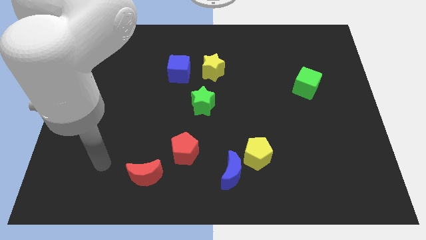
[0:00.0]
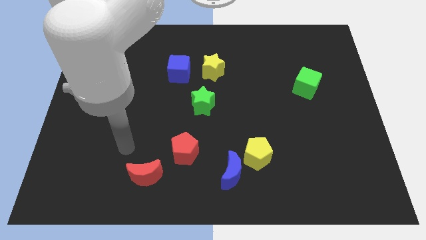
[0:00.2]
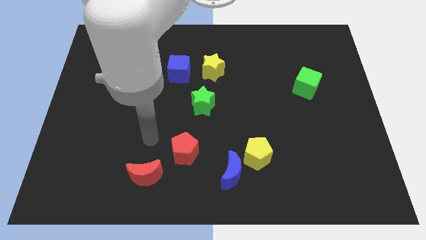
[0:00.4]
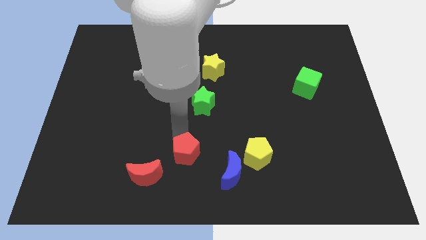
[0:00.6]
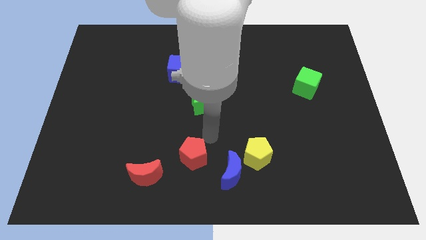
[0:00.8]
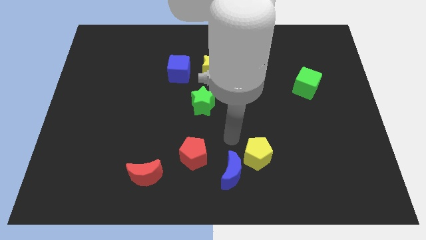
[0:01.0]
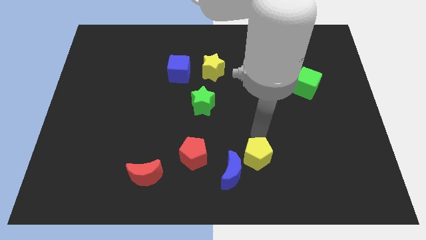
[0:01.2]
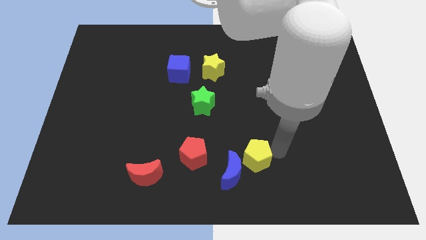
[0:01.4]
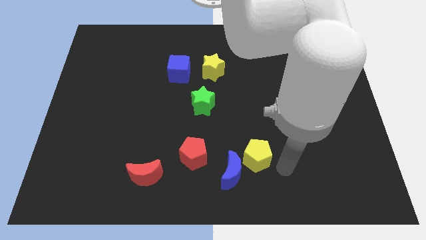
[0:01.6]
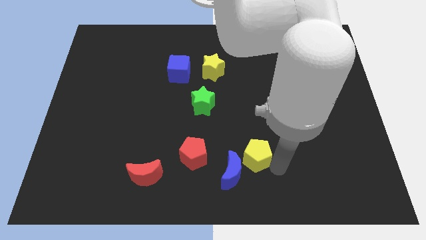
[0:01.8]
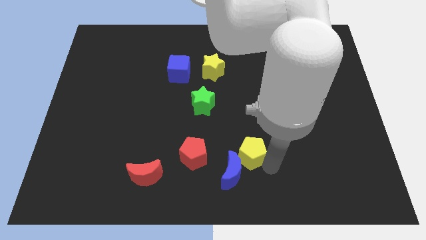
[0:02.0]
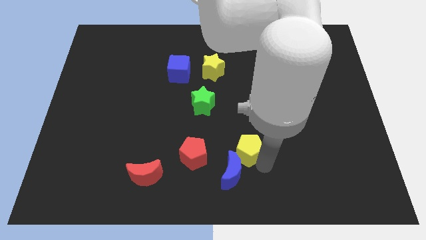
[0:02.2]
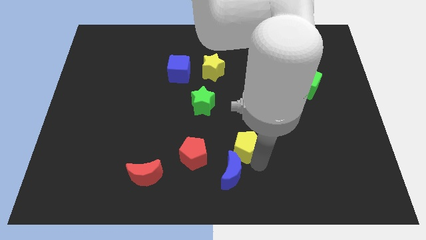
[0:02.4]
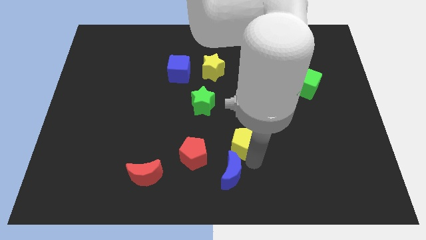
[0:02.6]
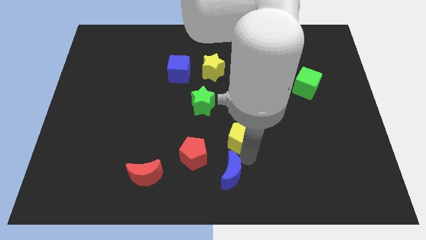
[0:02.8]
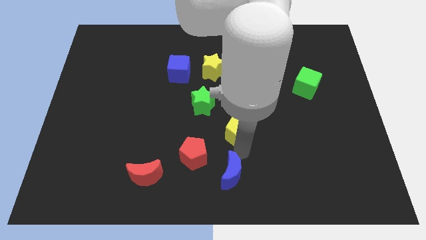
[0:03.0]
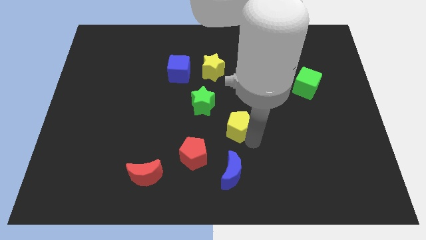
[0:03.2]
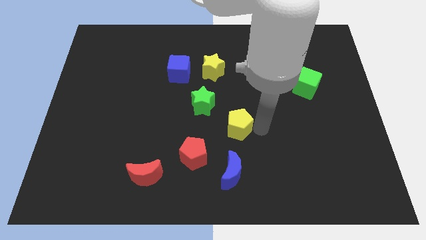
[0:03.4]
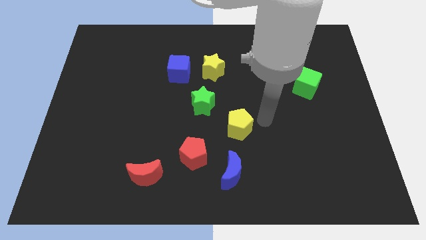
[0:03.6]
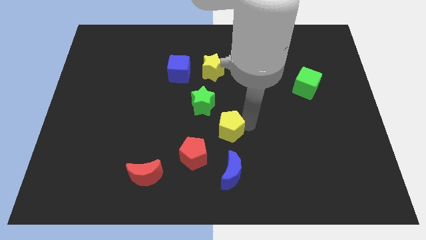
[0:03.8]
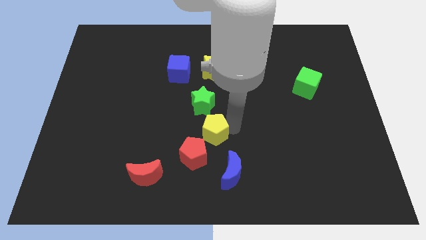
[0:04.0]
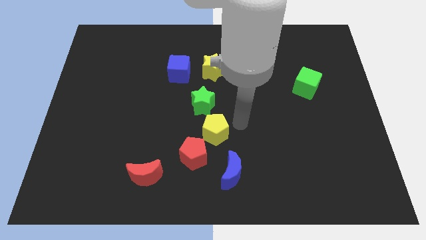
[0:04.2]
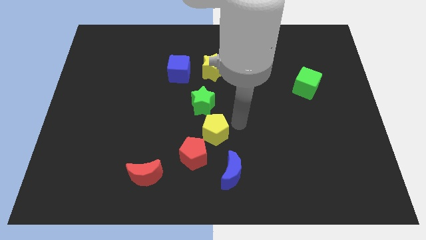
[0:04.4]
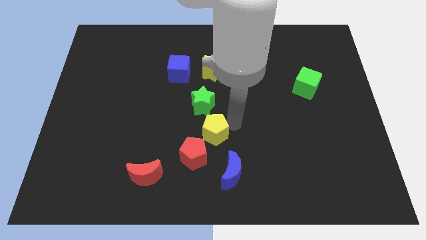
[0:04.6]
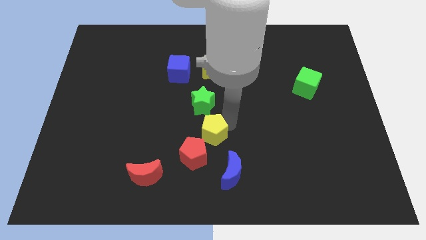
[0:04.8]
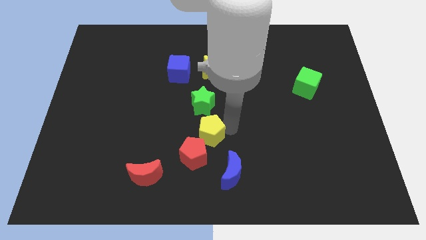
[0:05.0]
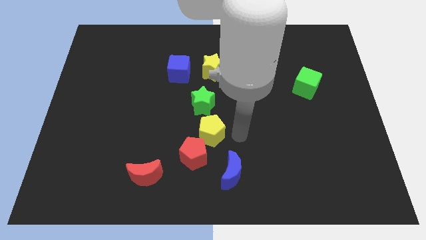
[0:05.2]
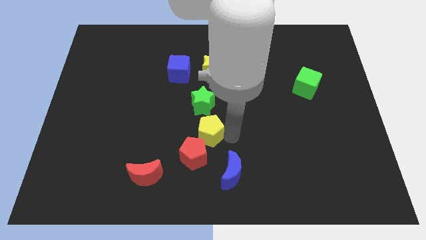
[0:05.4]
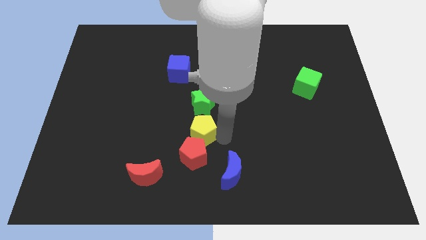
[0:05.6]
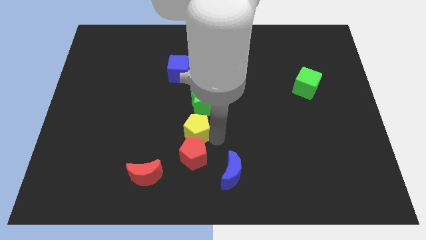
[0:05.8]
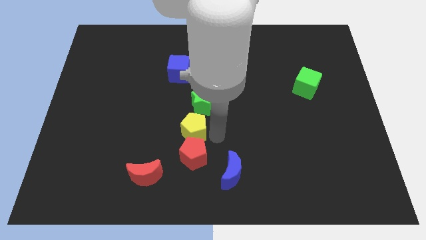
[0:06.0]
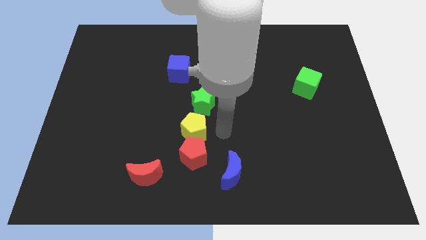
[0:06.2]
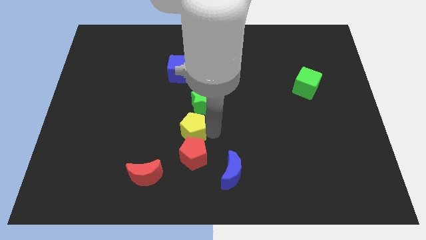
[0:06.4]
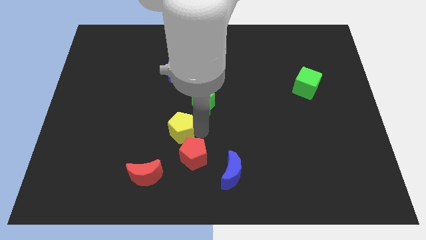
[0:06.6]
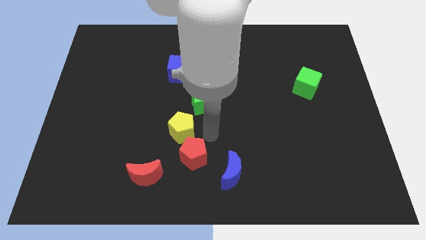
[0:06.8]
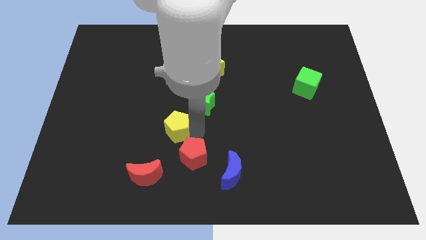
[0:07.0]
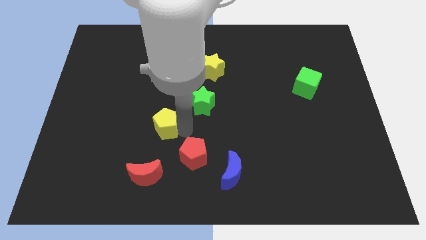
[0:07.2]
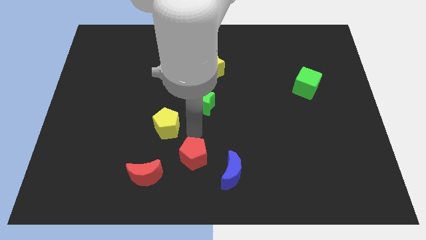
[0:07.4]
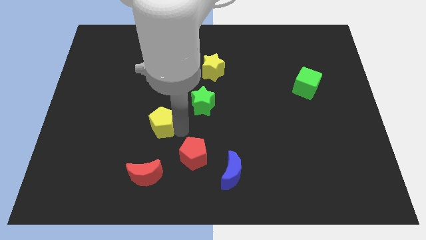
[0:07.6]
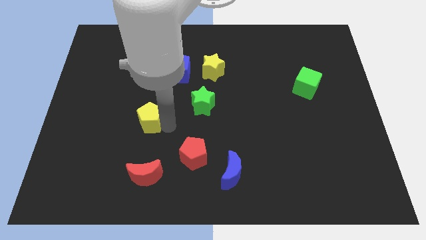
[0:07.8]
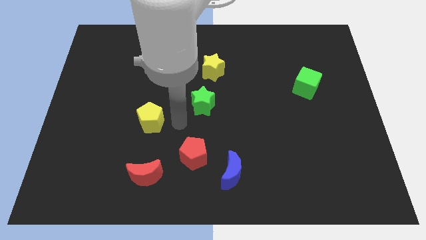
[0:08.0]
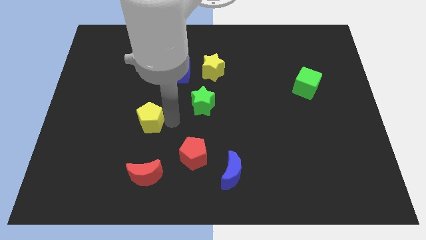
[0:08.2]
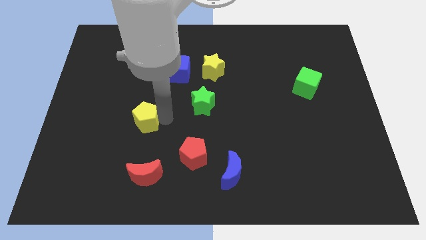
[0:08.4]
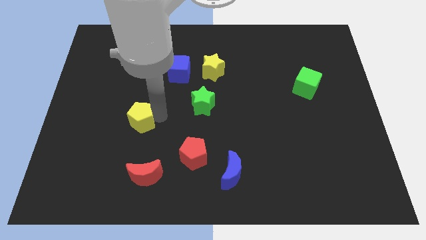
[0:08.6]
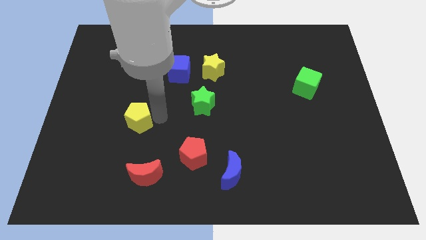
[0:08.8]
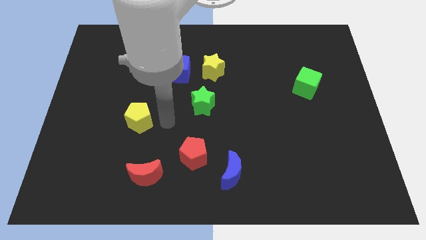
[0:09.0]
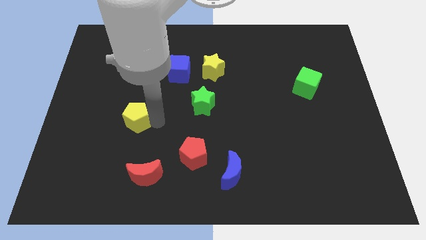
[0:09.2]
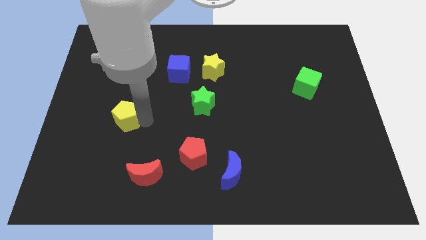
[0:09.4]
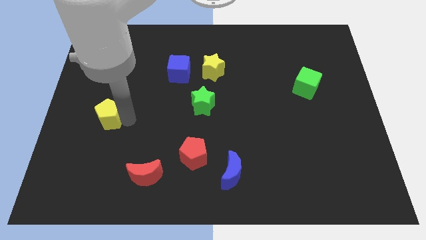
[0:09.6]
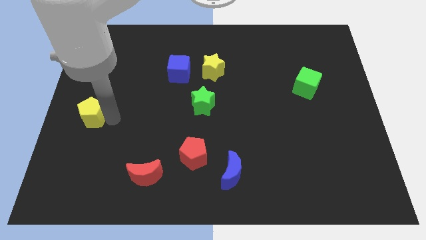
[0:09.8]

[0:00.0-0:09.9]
put the yellow pentagon to the left side of the board

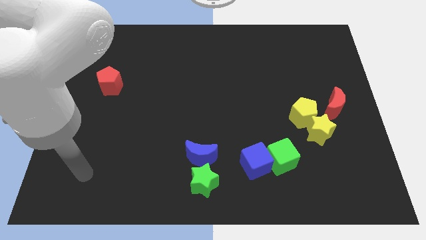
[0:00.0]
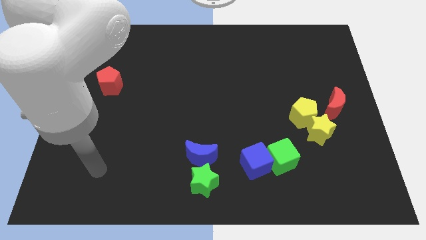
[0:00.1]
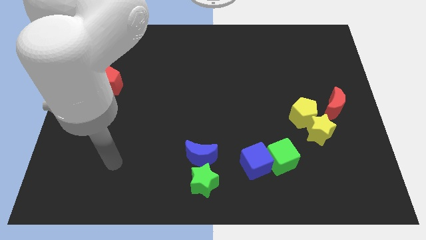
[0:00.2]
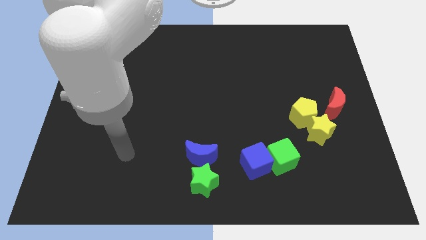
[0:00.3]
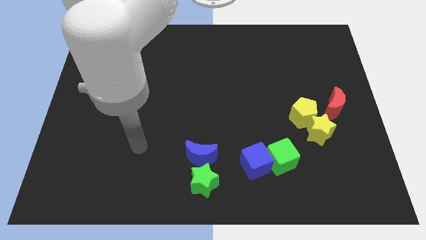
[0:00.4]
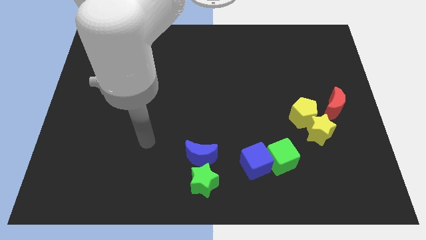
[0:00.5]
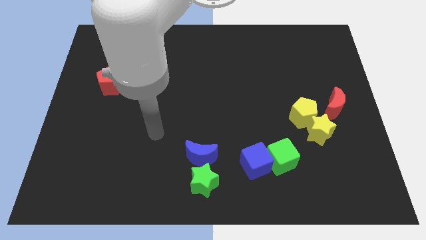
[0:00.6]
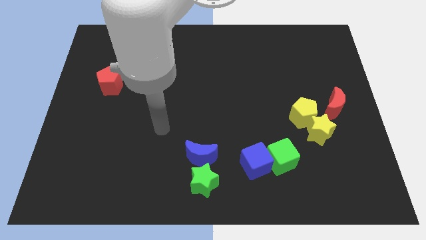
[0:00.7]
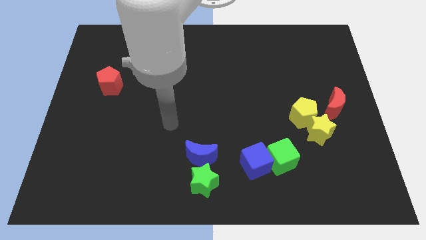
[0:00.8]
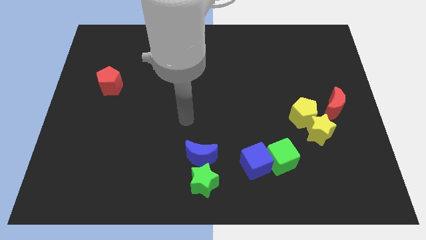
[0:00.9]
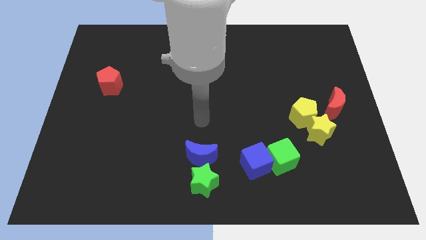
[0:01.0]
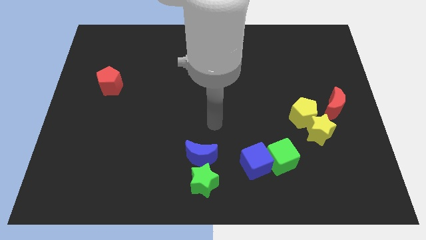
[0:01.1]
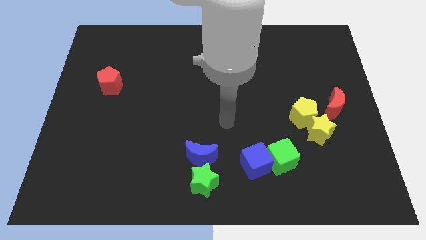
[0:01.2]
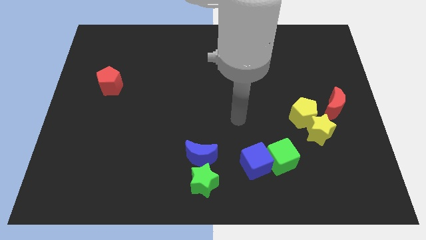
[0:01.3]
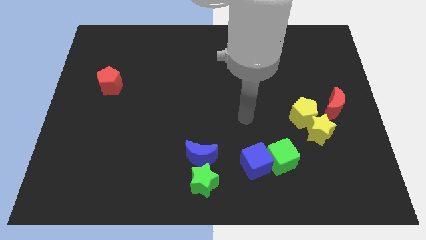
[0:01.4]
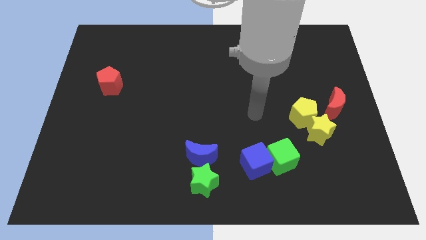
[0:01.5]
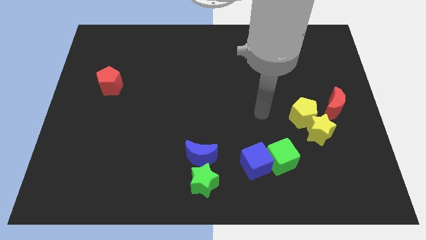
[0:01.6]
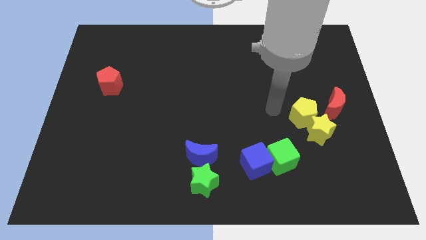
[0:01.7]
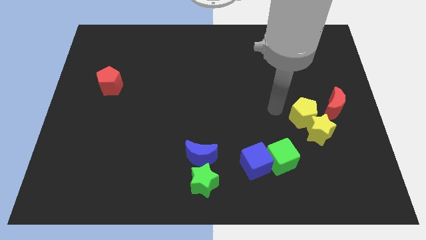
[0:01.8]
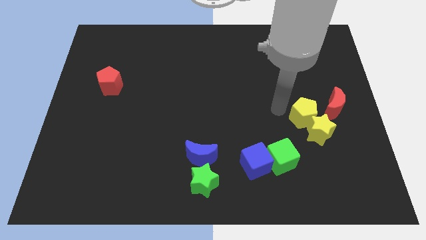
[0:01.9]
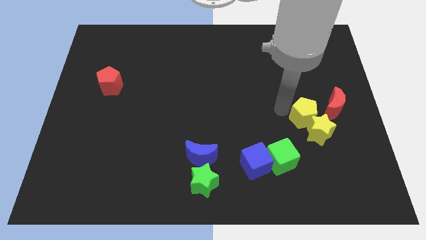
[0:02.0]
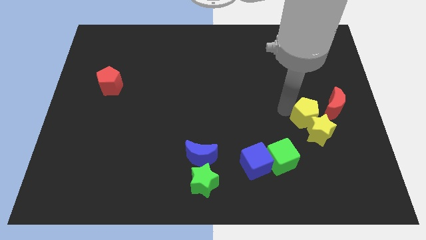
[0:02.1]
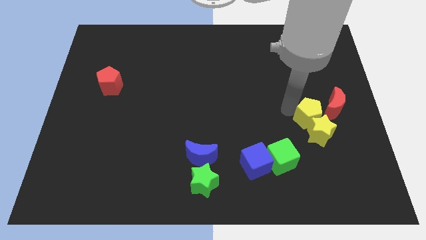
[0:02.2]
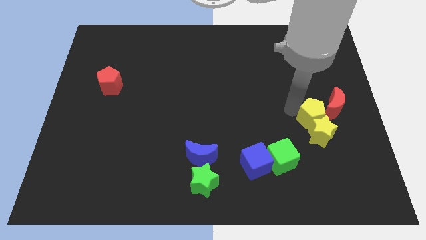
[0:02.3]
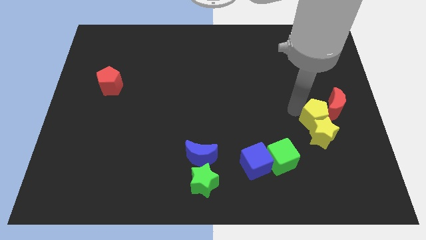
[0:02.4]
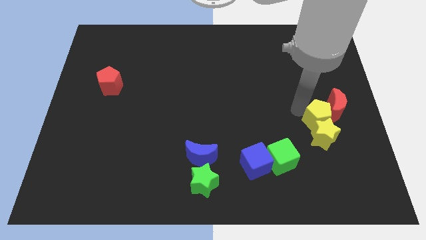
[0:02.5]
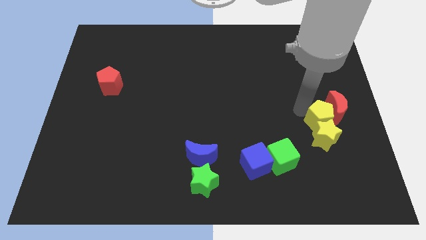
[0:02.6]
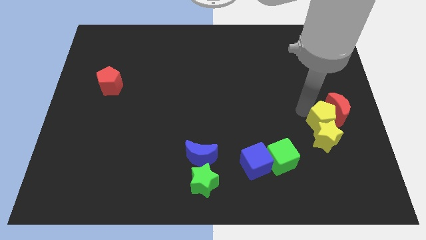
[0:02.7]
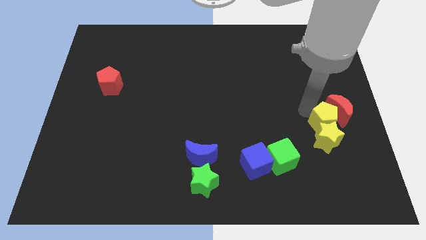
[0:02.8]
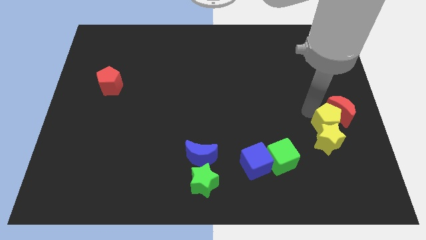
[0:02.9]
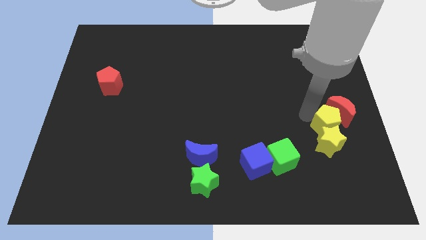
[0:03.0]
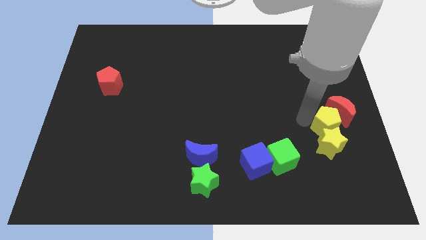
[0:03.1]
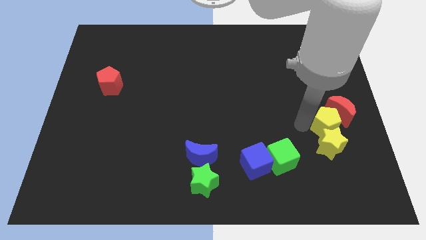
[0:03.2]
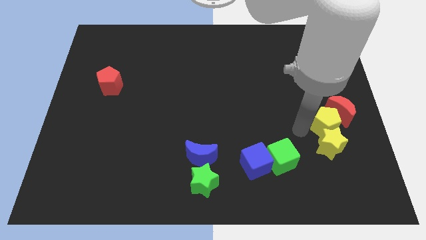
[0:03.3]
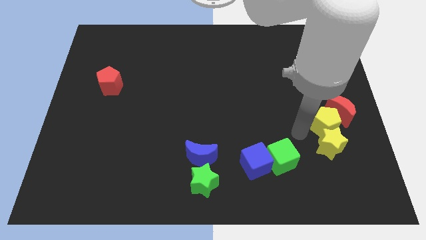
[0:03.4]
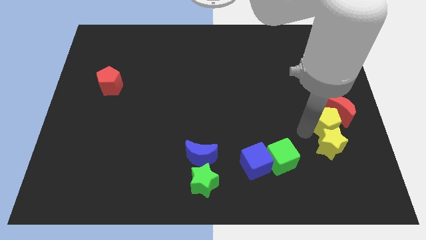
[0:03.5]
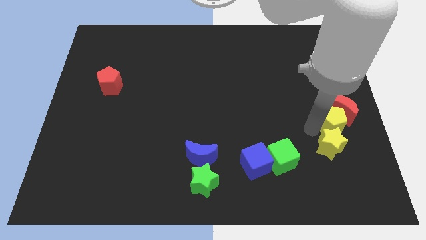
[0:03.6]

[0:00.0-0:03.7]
push the yellow pentagon to the center right
